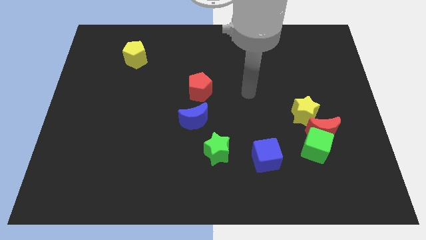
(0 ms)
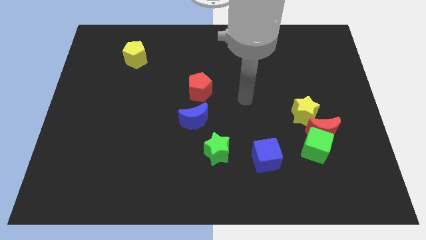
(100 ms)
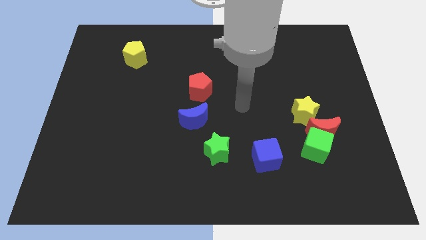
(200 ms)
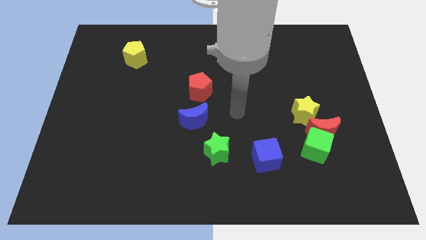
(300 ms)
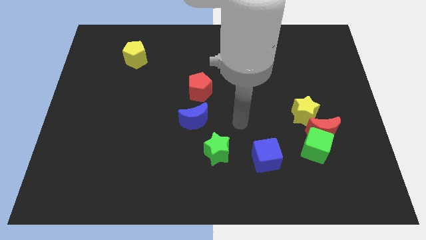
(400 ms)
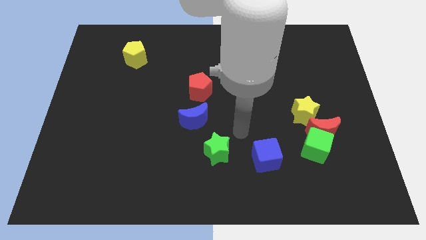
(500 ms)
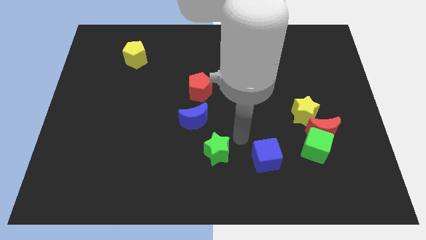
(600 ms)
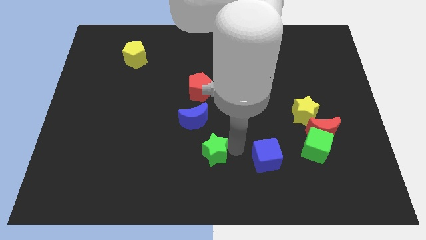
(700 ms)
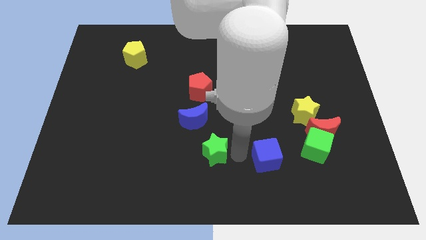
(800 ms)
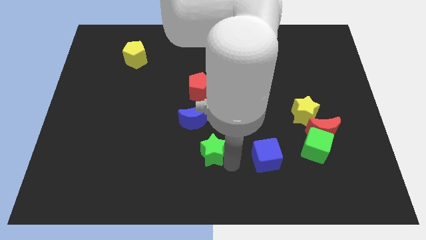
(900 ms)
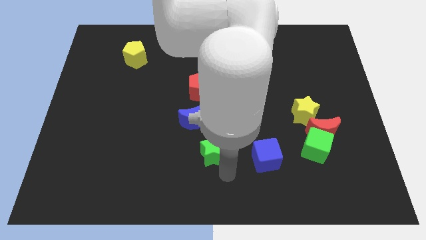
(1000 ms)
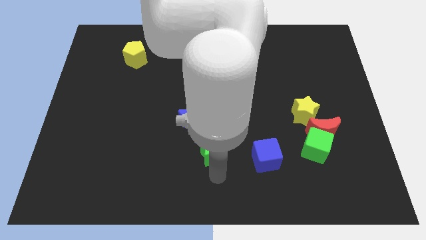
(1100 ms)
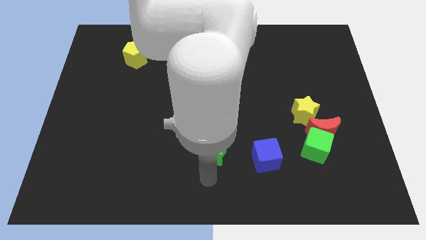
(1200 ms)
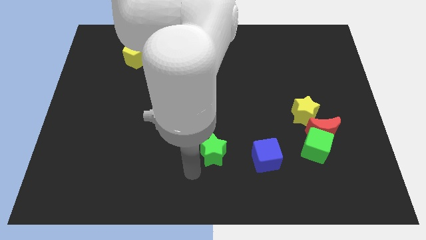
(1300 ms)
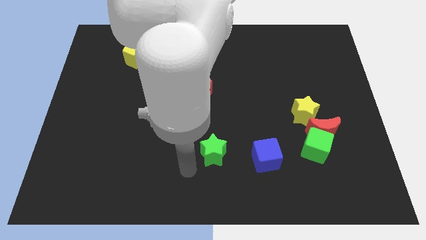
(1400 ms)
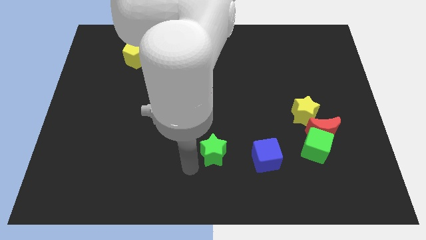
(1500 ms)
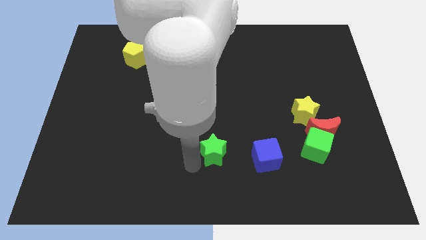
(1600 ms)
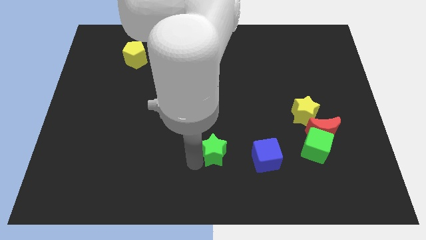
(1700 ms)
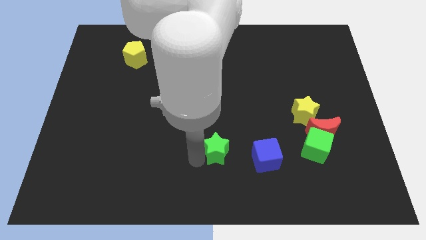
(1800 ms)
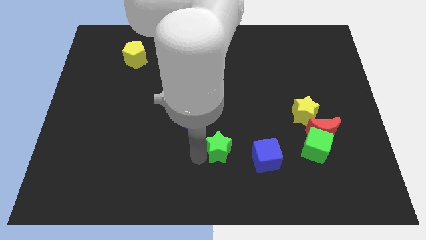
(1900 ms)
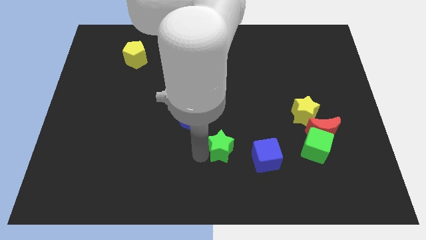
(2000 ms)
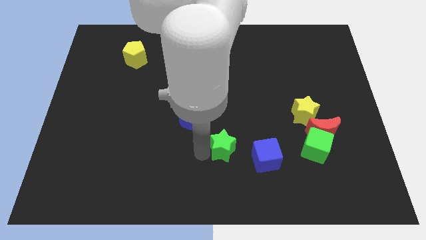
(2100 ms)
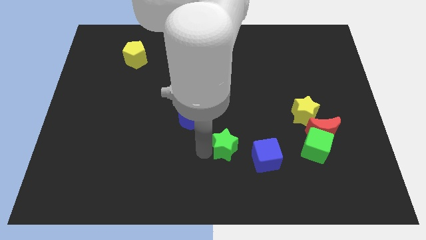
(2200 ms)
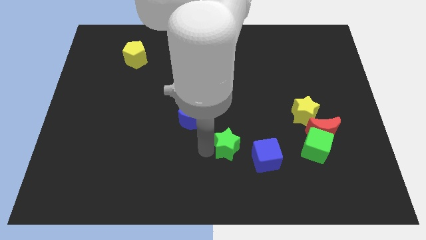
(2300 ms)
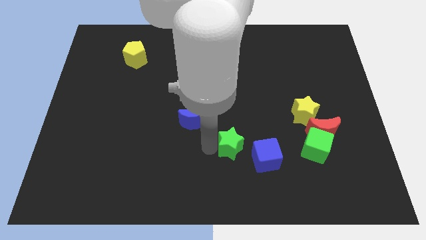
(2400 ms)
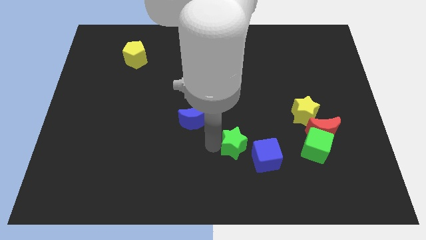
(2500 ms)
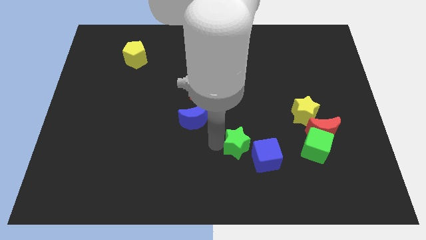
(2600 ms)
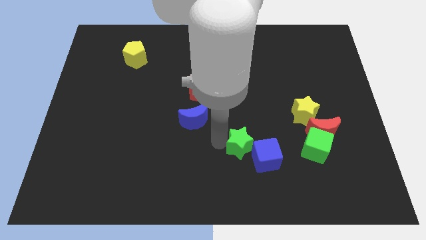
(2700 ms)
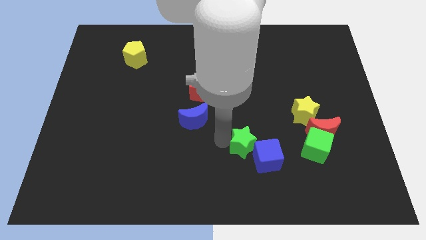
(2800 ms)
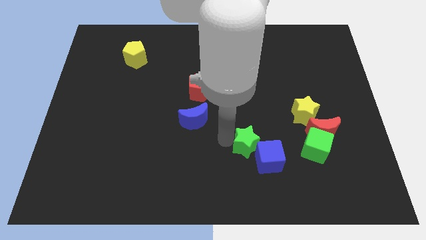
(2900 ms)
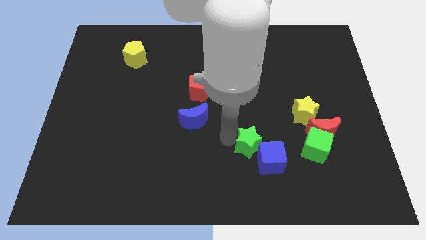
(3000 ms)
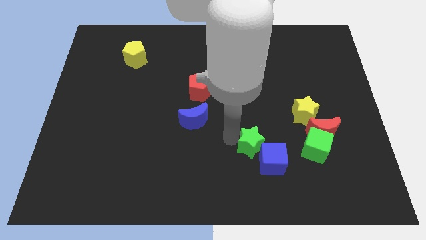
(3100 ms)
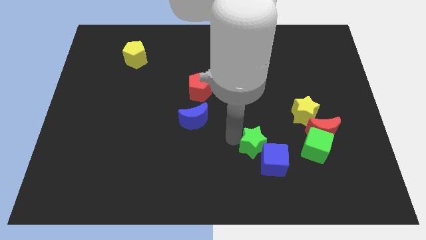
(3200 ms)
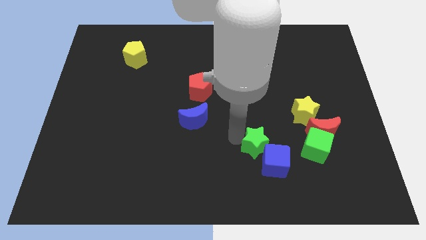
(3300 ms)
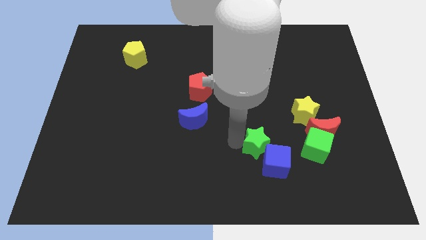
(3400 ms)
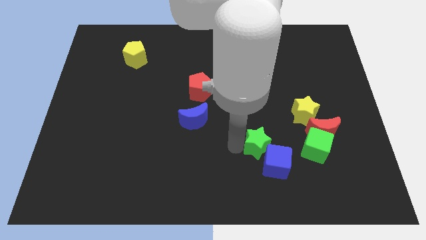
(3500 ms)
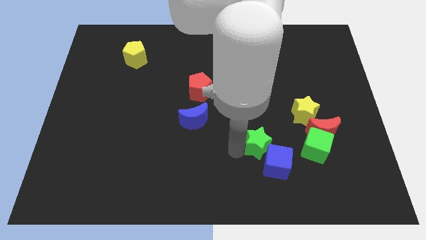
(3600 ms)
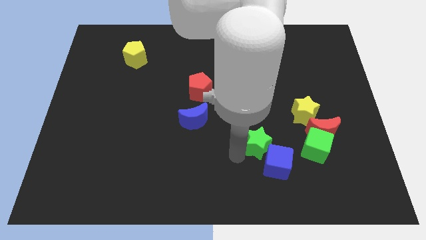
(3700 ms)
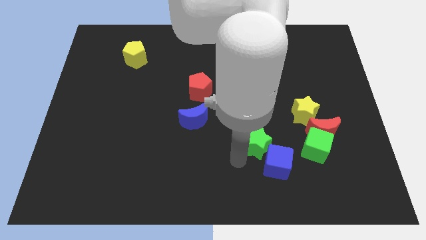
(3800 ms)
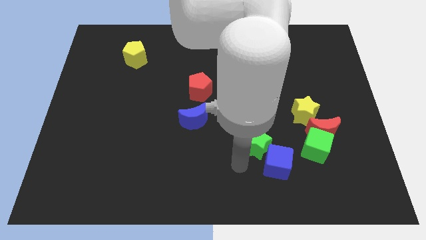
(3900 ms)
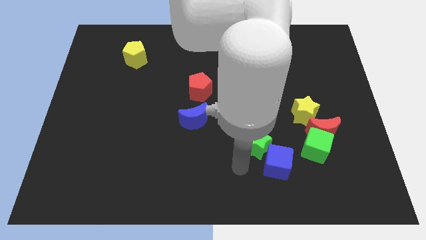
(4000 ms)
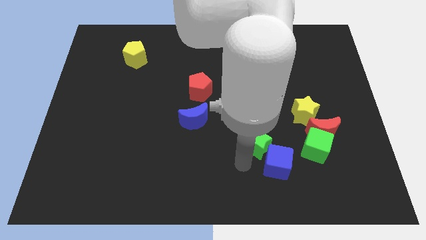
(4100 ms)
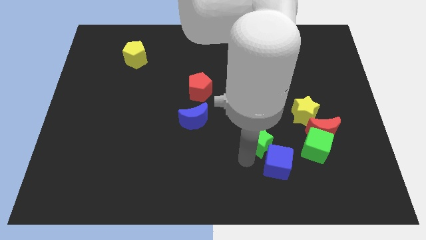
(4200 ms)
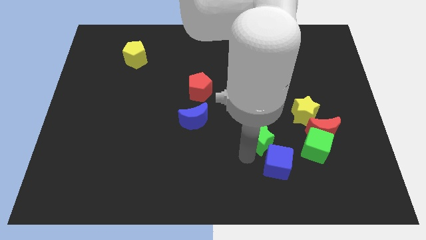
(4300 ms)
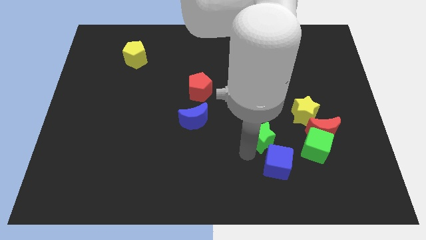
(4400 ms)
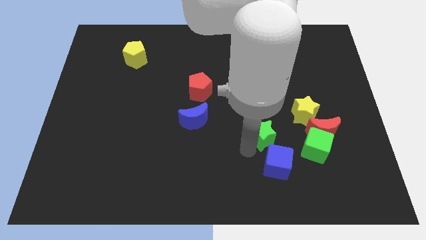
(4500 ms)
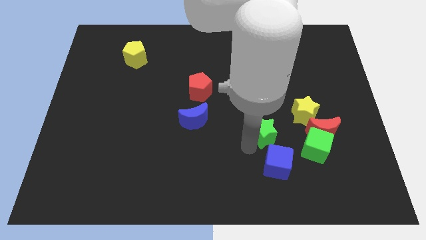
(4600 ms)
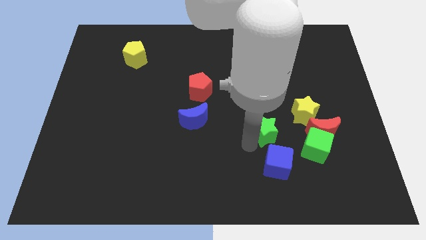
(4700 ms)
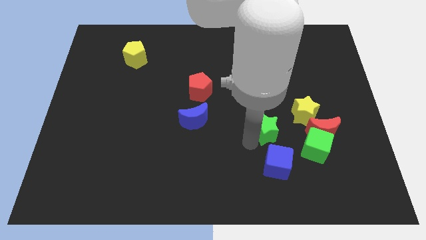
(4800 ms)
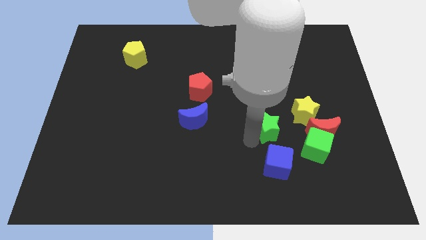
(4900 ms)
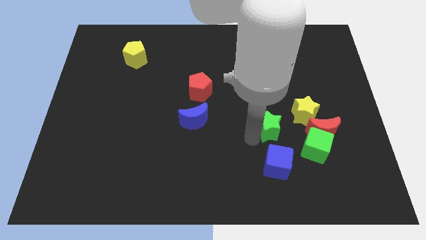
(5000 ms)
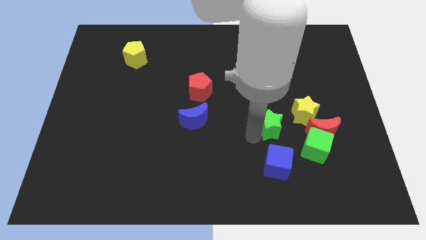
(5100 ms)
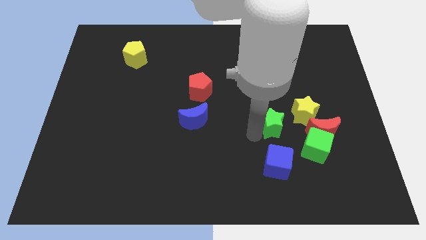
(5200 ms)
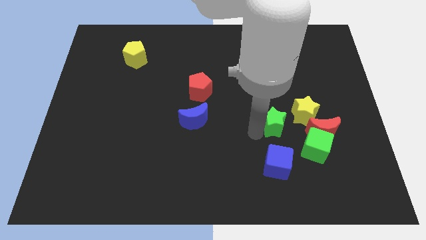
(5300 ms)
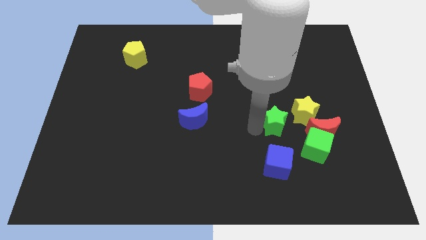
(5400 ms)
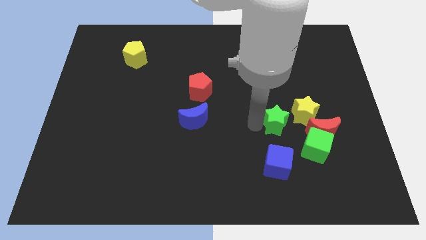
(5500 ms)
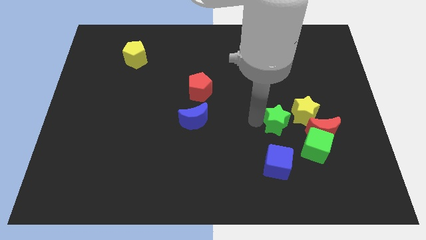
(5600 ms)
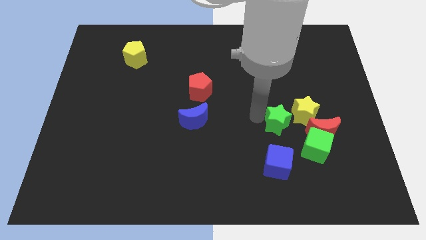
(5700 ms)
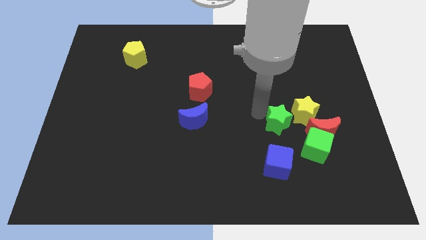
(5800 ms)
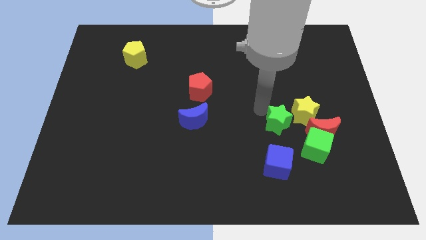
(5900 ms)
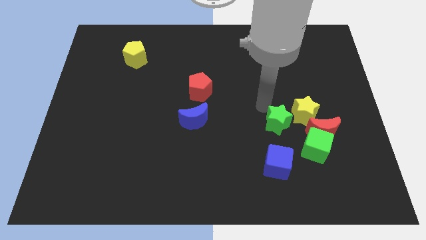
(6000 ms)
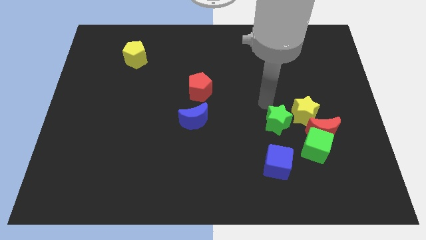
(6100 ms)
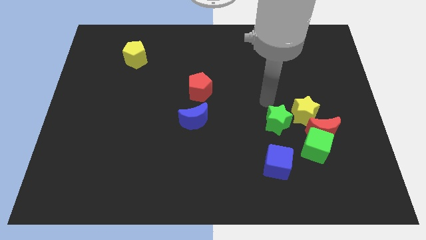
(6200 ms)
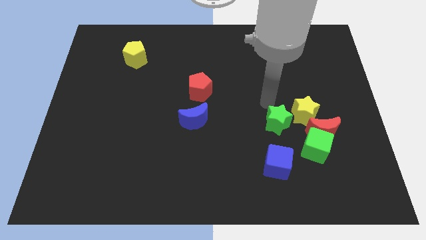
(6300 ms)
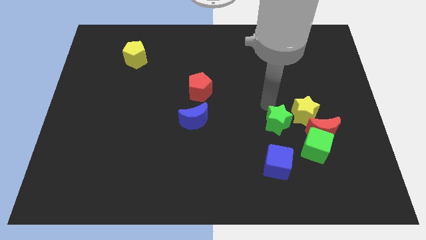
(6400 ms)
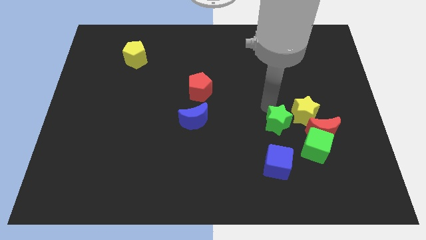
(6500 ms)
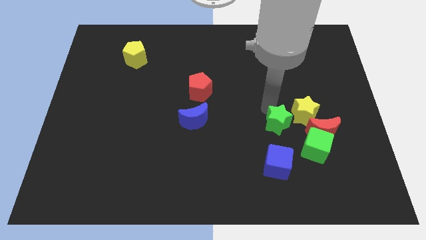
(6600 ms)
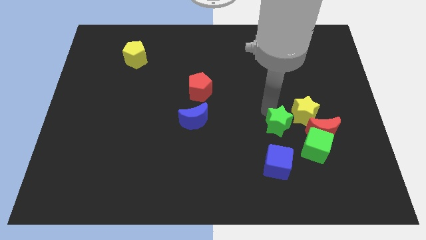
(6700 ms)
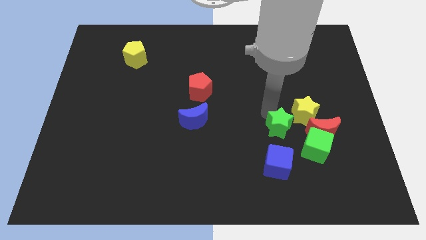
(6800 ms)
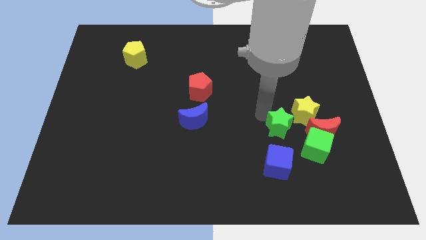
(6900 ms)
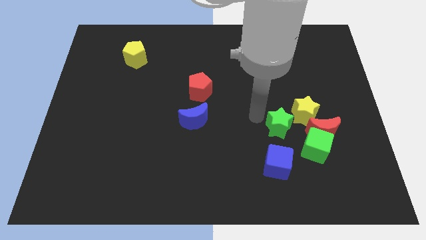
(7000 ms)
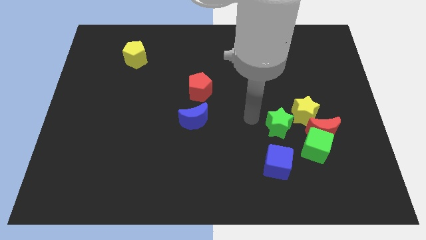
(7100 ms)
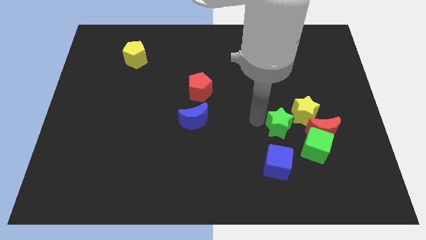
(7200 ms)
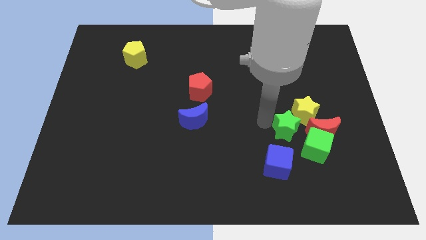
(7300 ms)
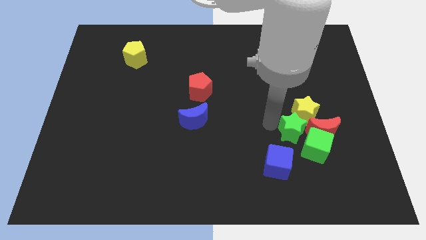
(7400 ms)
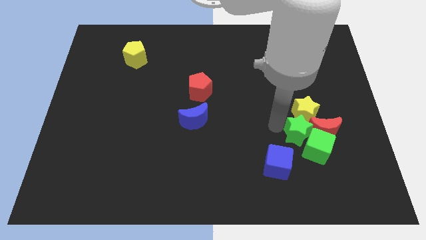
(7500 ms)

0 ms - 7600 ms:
move the green star next to the red moon
